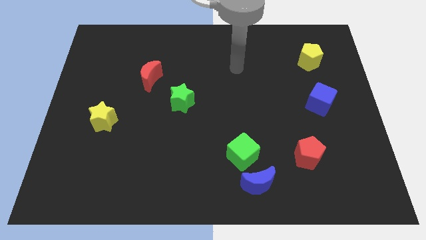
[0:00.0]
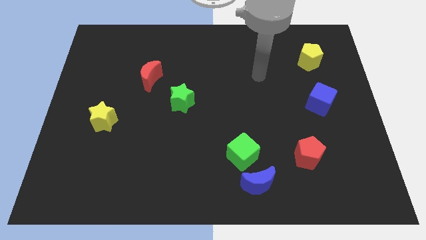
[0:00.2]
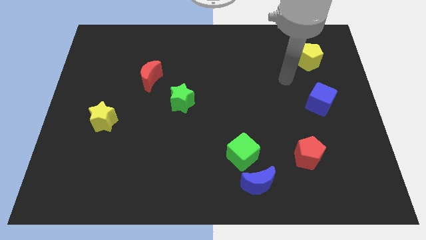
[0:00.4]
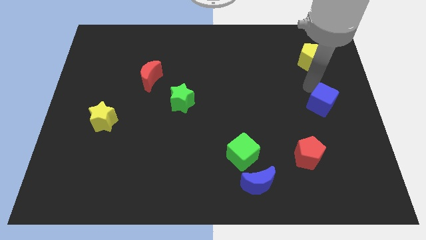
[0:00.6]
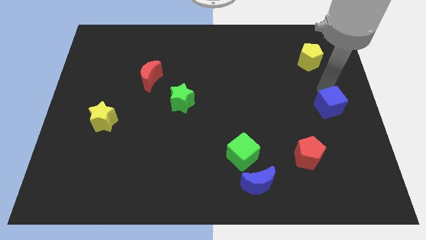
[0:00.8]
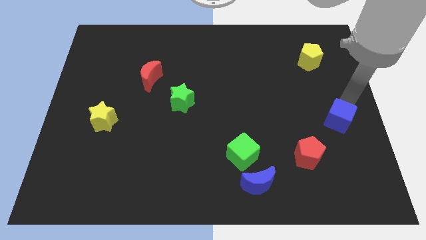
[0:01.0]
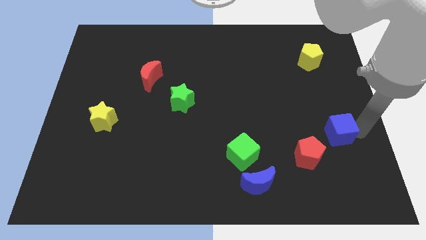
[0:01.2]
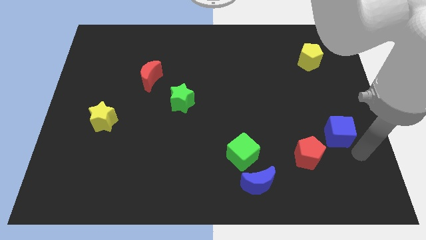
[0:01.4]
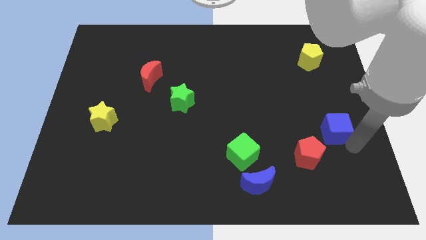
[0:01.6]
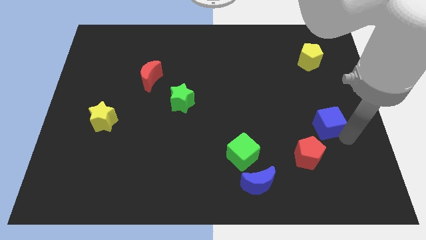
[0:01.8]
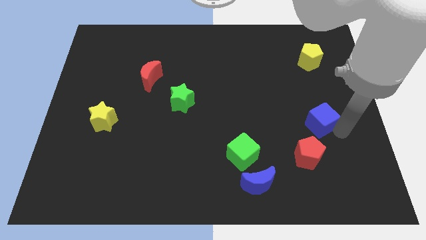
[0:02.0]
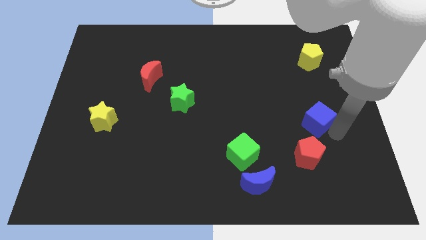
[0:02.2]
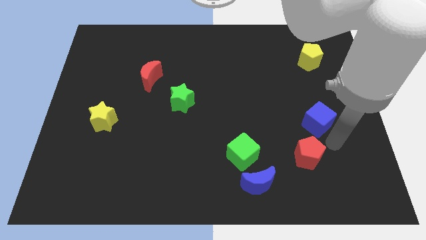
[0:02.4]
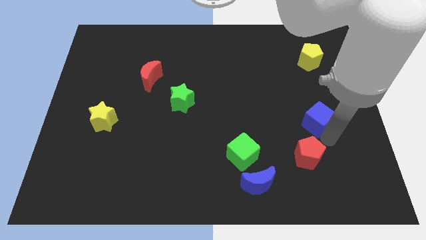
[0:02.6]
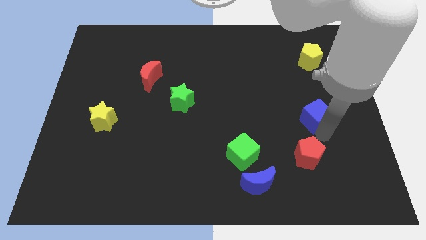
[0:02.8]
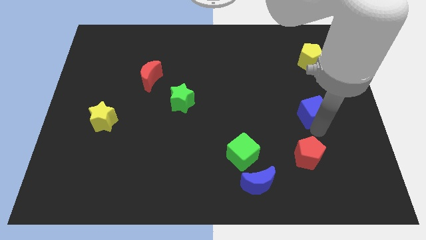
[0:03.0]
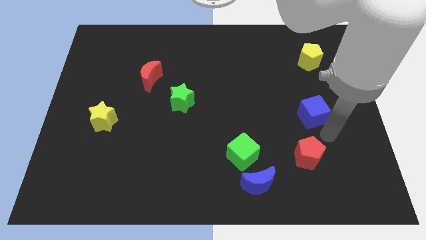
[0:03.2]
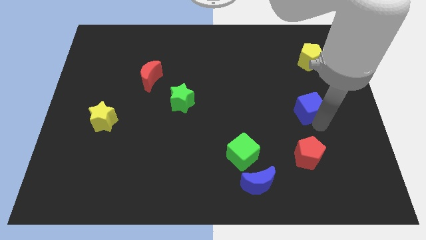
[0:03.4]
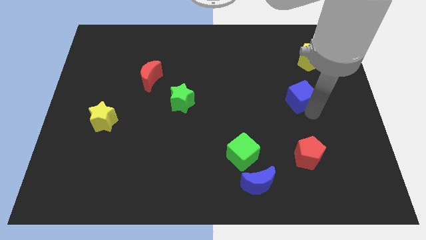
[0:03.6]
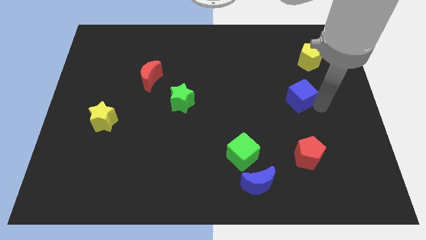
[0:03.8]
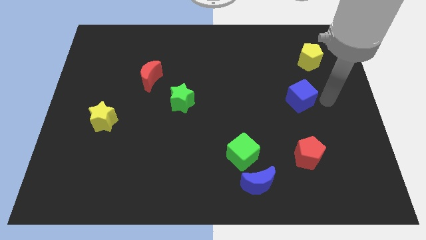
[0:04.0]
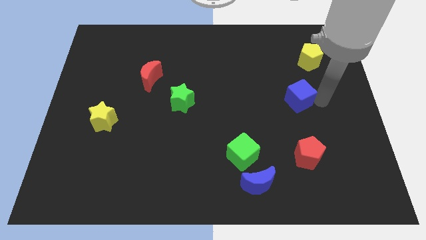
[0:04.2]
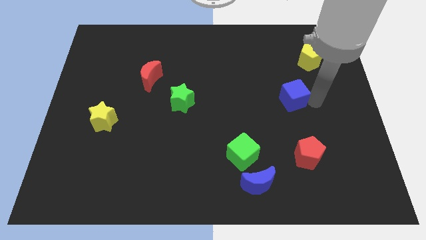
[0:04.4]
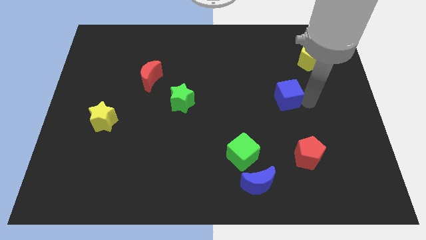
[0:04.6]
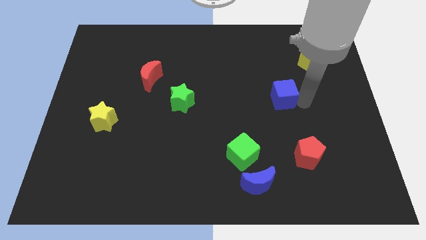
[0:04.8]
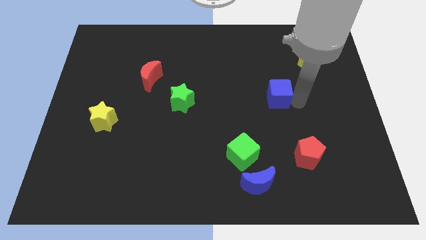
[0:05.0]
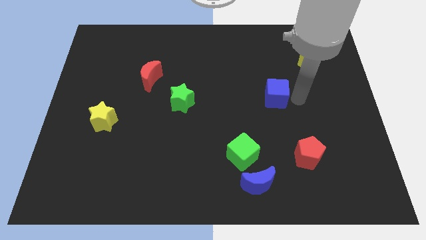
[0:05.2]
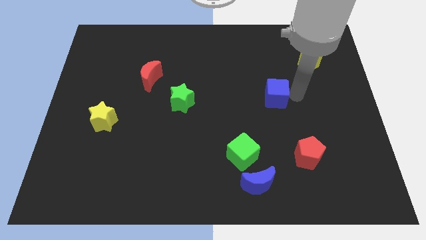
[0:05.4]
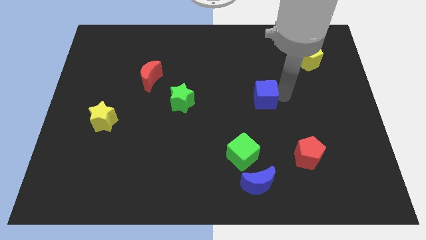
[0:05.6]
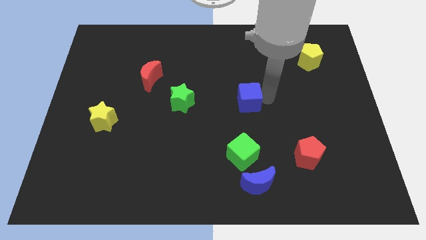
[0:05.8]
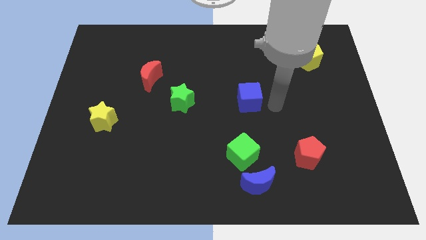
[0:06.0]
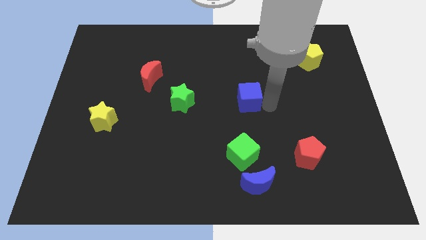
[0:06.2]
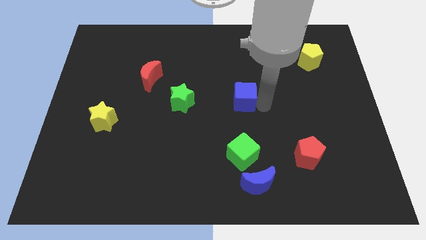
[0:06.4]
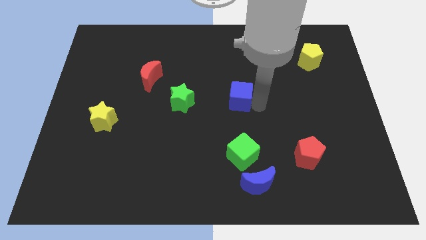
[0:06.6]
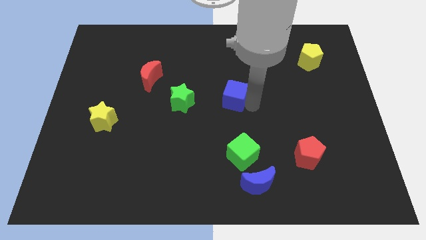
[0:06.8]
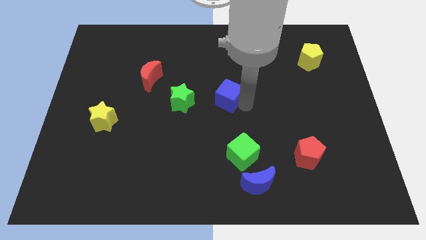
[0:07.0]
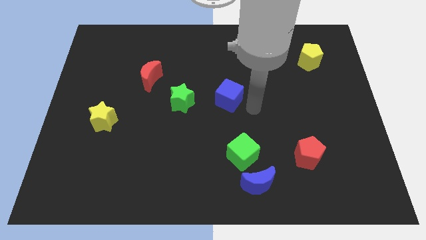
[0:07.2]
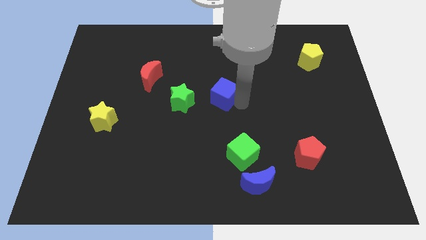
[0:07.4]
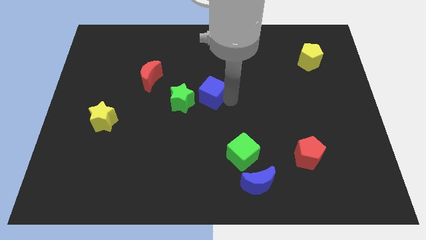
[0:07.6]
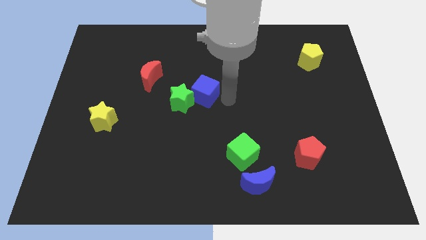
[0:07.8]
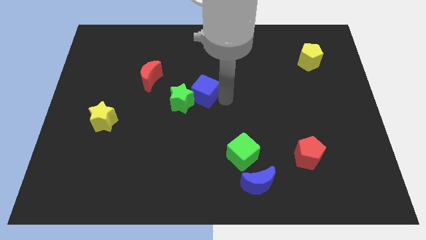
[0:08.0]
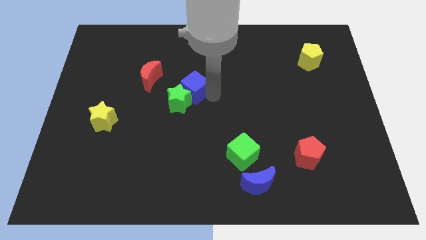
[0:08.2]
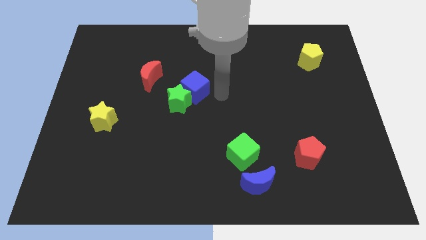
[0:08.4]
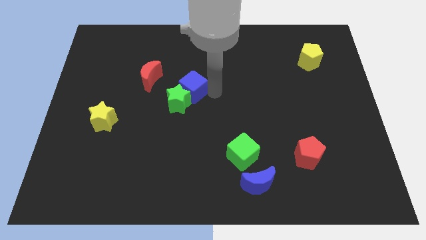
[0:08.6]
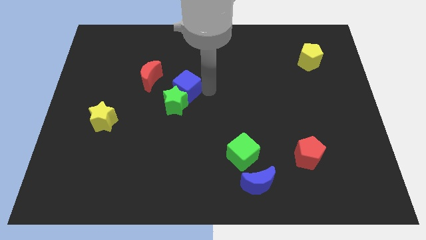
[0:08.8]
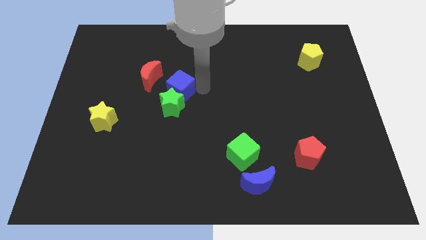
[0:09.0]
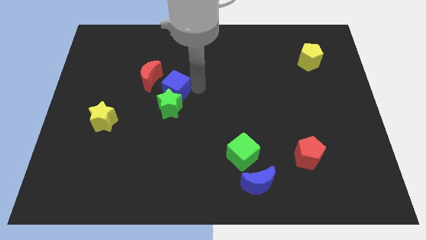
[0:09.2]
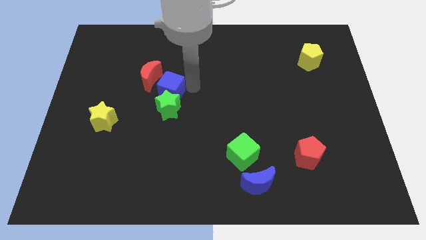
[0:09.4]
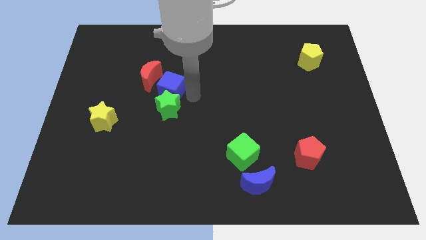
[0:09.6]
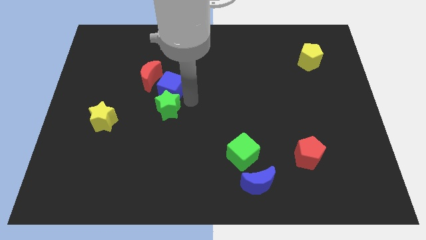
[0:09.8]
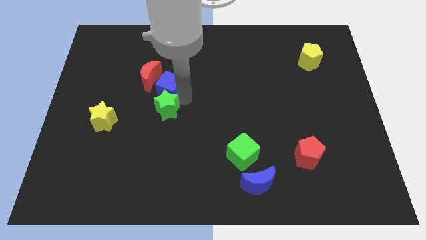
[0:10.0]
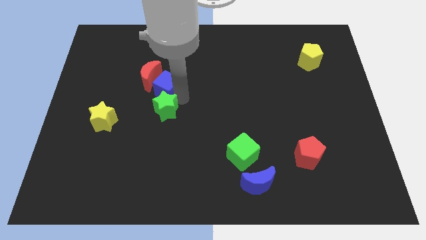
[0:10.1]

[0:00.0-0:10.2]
push the blue cube next to the red moon

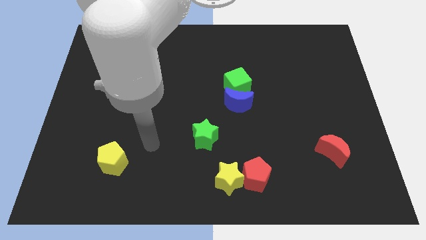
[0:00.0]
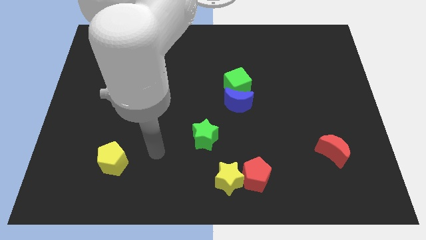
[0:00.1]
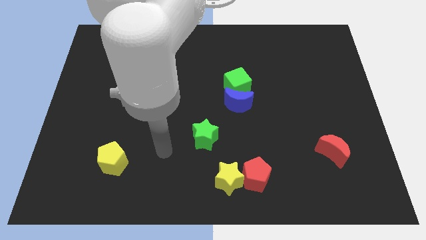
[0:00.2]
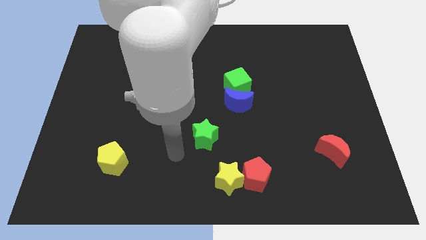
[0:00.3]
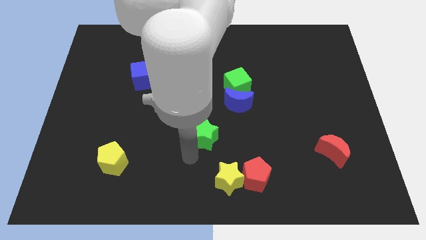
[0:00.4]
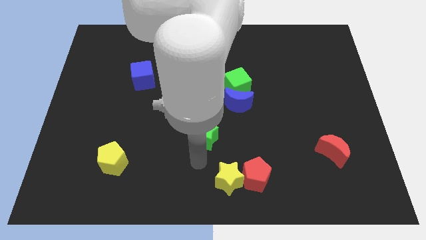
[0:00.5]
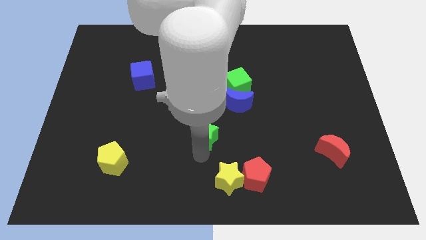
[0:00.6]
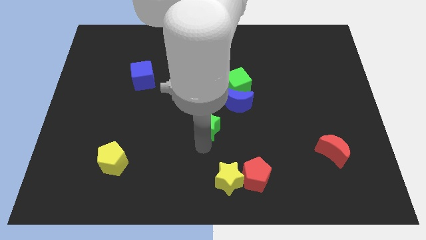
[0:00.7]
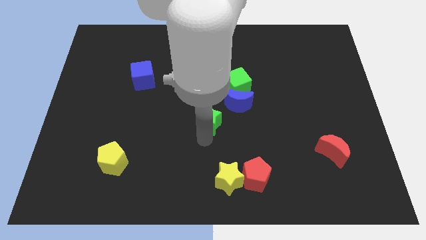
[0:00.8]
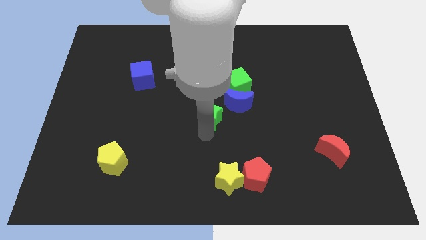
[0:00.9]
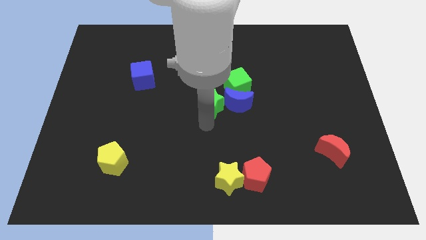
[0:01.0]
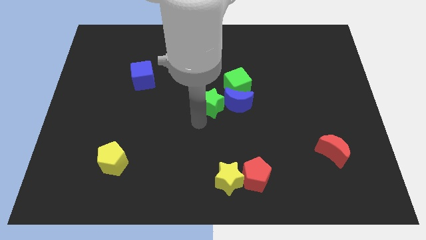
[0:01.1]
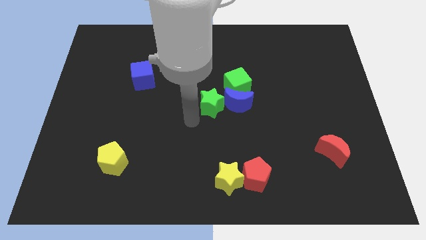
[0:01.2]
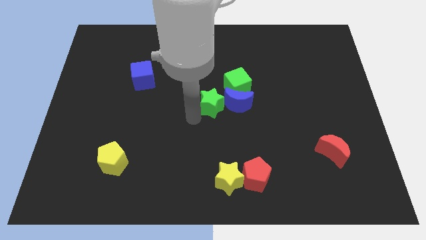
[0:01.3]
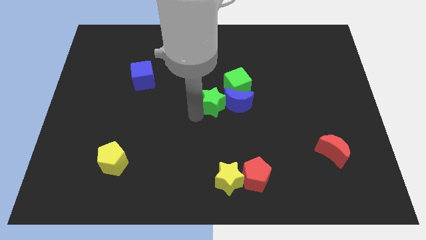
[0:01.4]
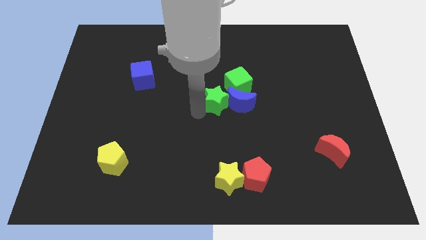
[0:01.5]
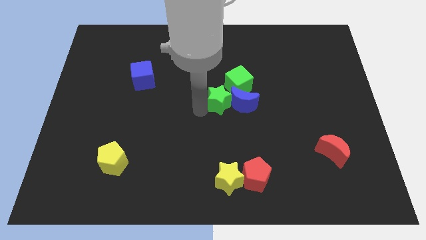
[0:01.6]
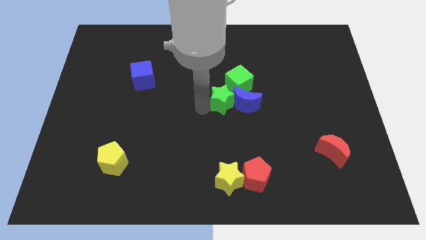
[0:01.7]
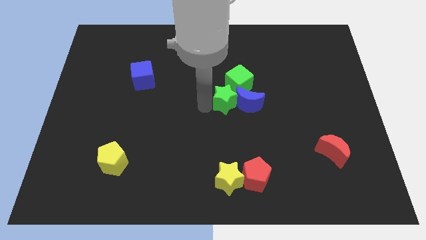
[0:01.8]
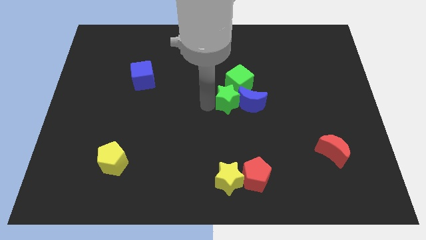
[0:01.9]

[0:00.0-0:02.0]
push the green star close to the green cube
